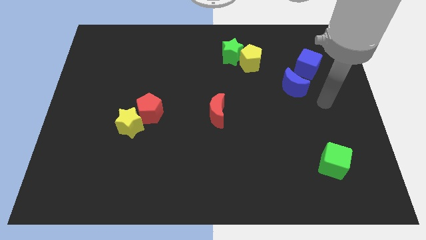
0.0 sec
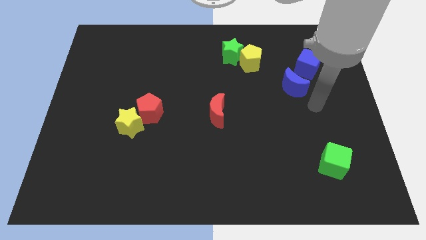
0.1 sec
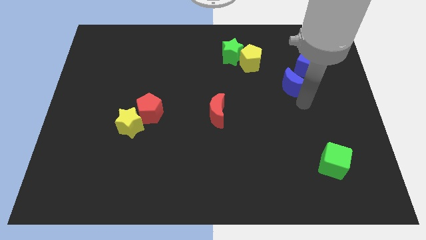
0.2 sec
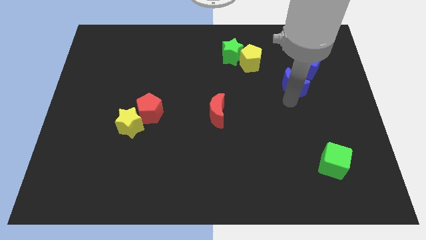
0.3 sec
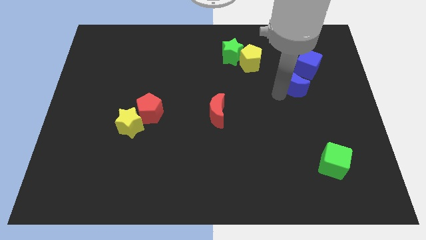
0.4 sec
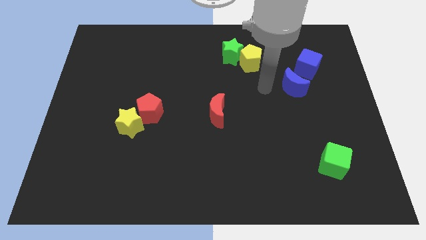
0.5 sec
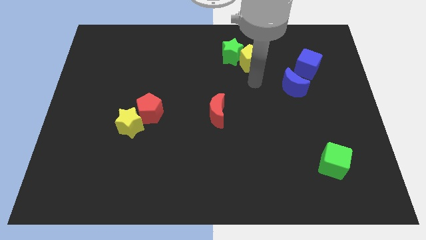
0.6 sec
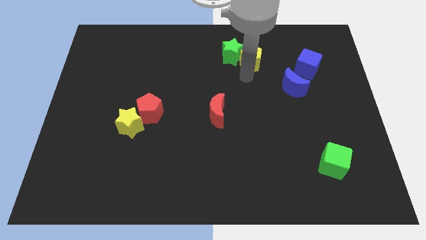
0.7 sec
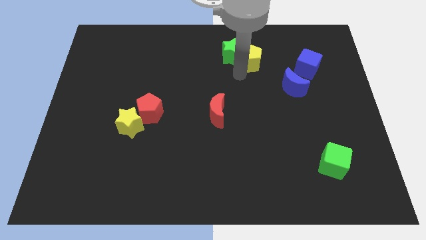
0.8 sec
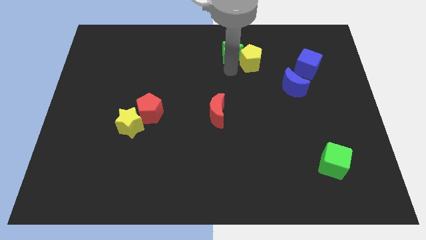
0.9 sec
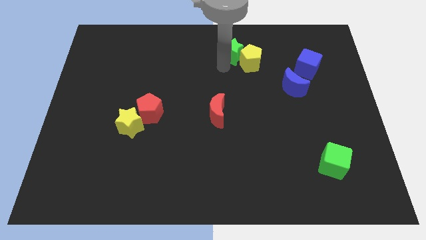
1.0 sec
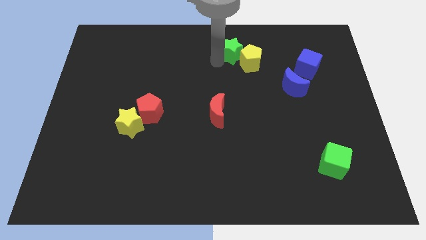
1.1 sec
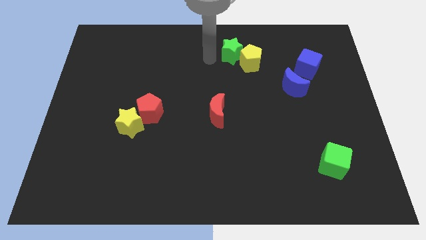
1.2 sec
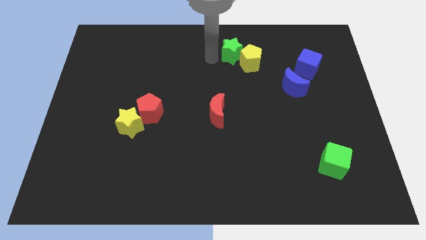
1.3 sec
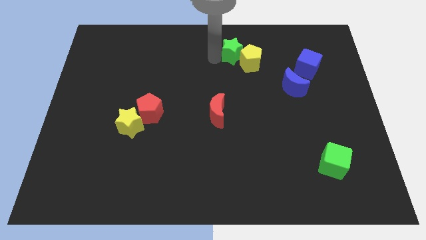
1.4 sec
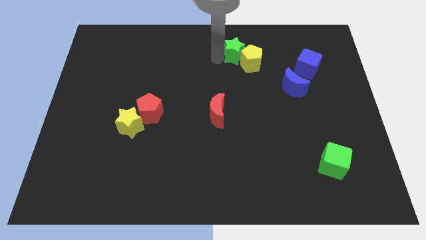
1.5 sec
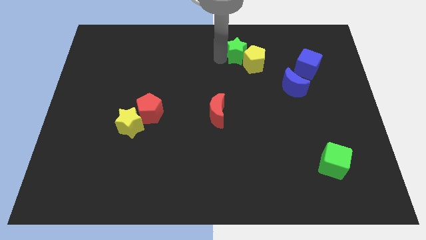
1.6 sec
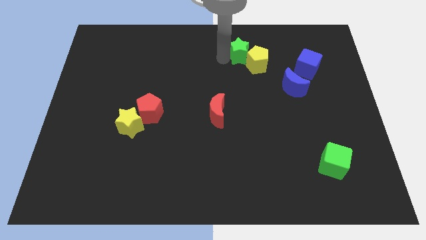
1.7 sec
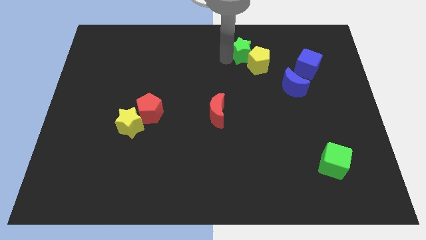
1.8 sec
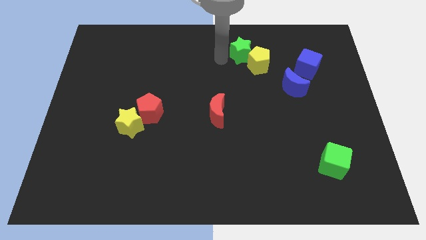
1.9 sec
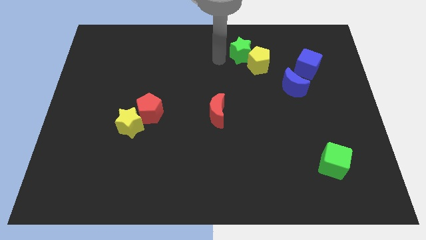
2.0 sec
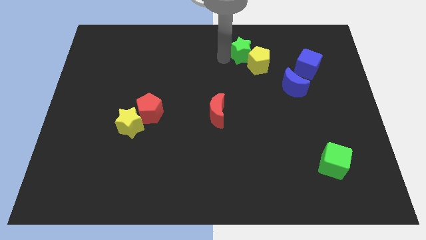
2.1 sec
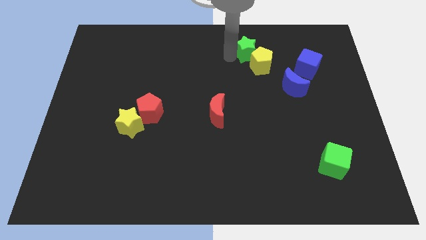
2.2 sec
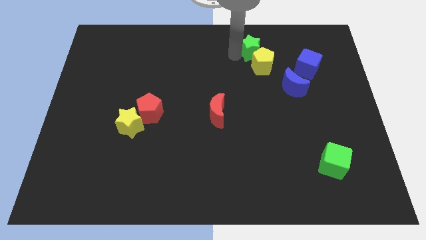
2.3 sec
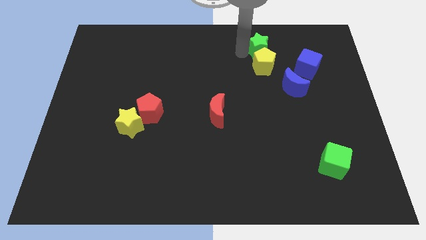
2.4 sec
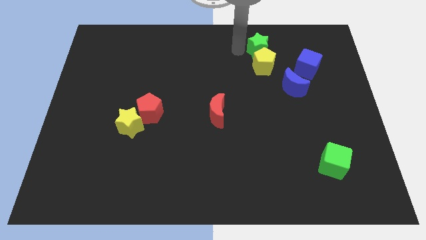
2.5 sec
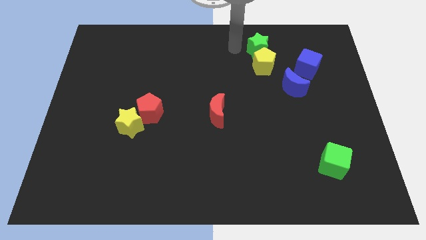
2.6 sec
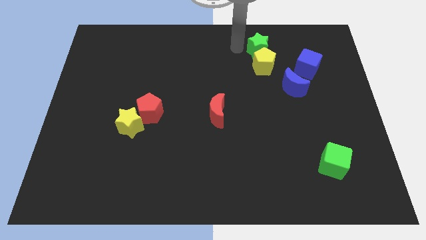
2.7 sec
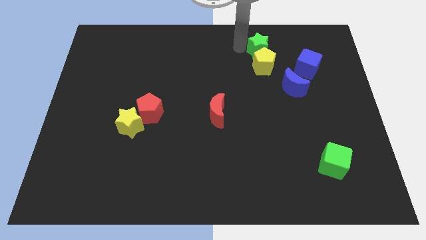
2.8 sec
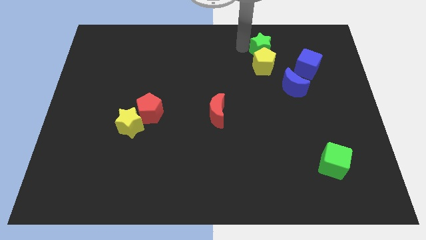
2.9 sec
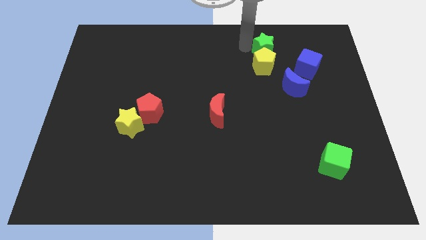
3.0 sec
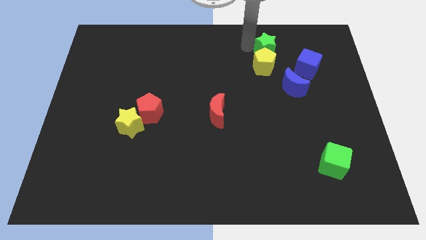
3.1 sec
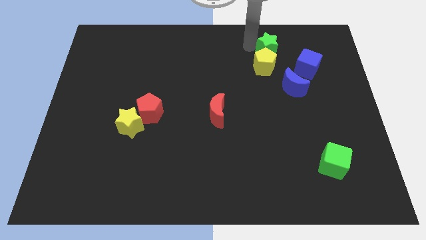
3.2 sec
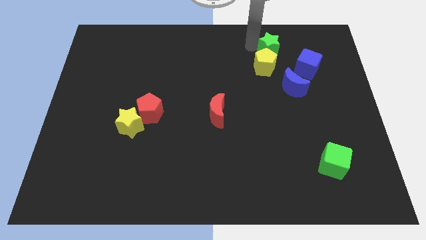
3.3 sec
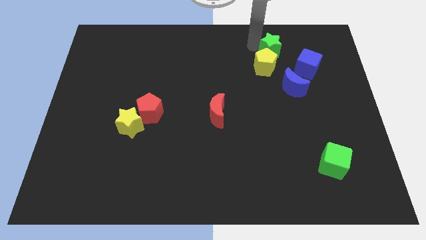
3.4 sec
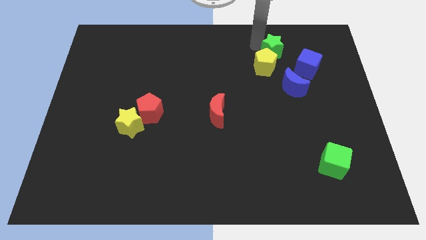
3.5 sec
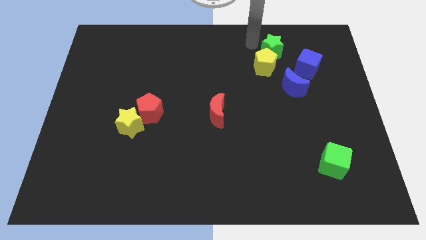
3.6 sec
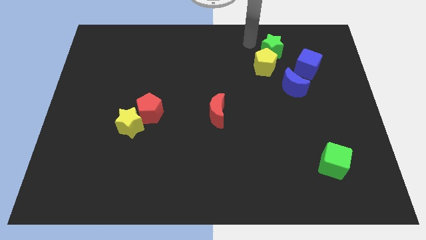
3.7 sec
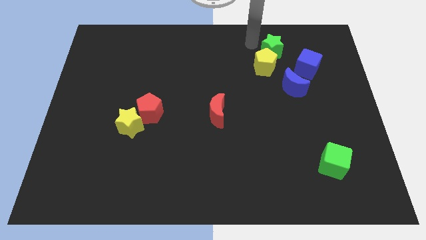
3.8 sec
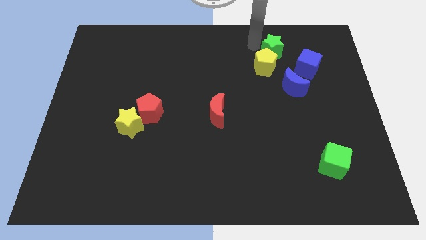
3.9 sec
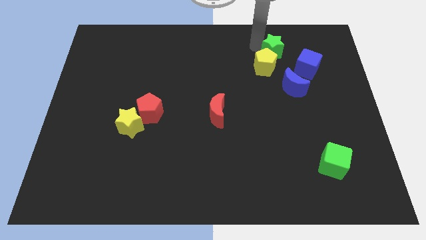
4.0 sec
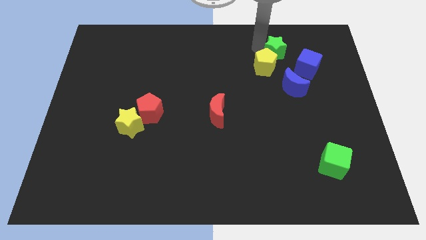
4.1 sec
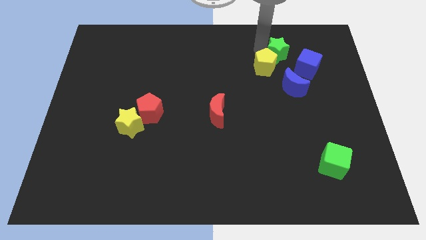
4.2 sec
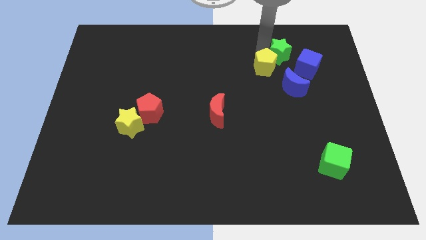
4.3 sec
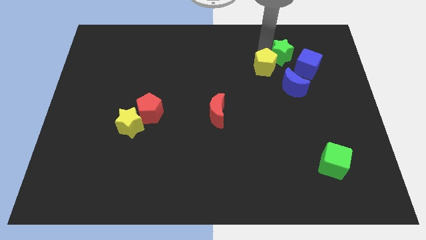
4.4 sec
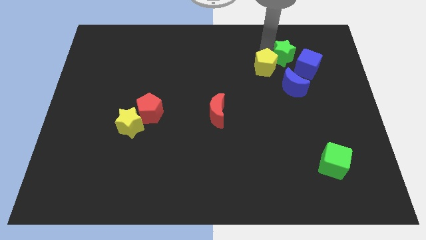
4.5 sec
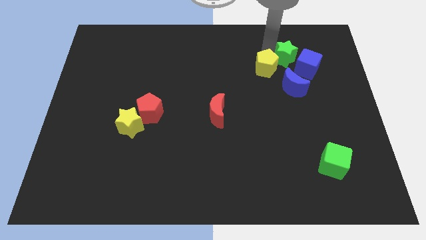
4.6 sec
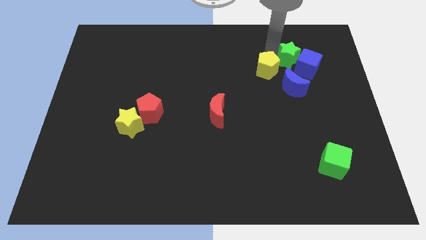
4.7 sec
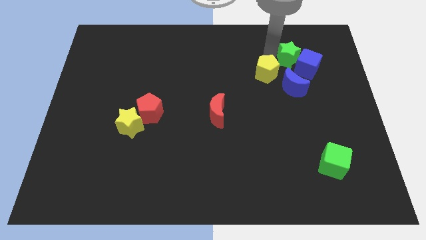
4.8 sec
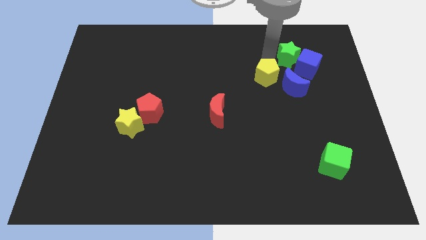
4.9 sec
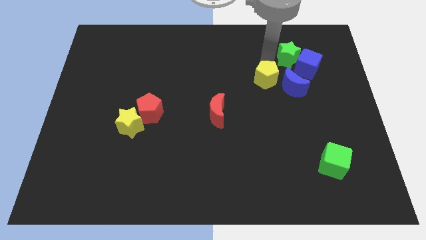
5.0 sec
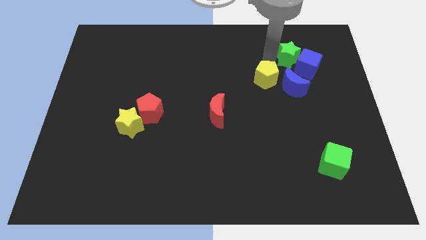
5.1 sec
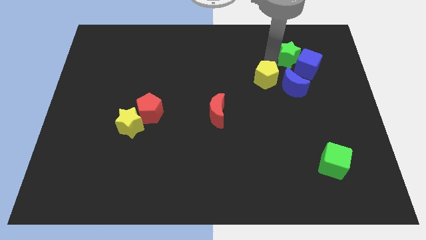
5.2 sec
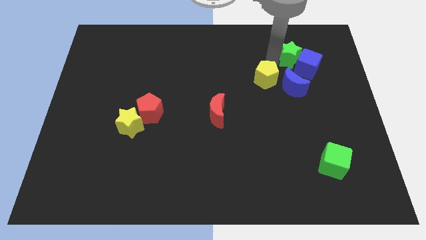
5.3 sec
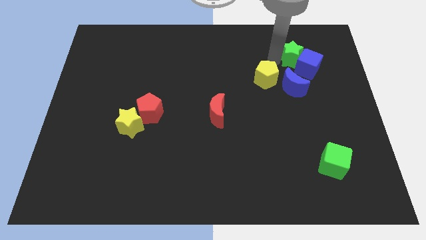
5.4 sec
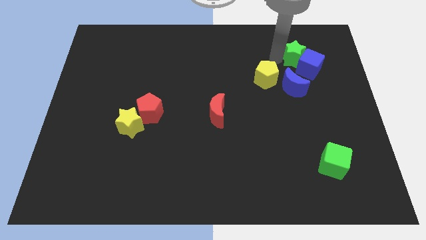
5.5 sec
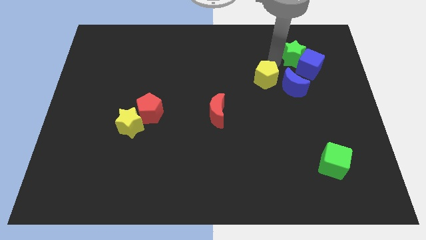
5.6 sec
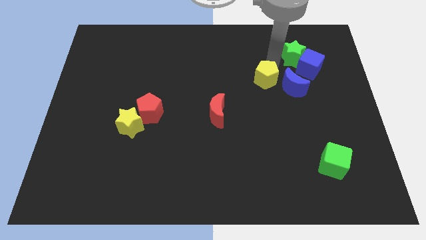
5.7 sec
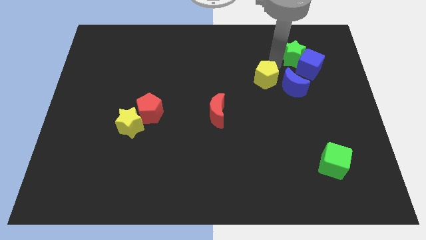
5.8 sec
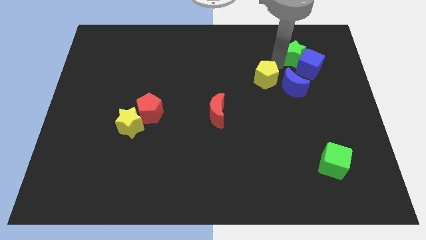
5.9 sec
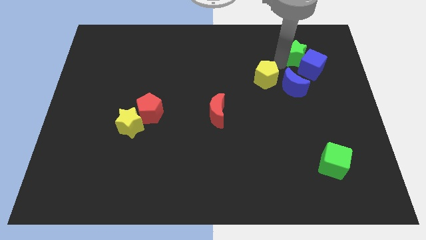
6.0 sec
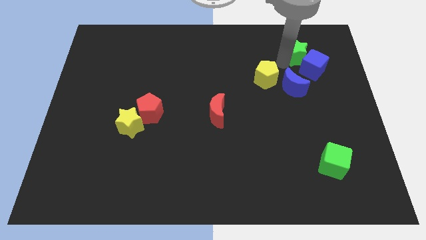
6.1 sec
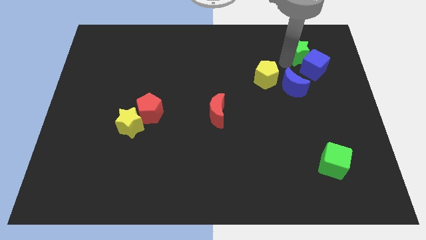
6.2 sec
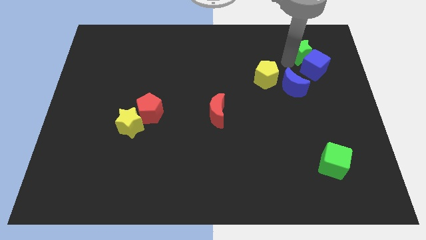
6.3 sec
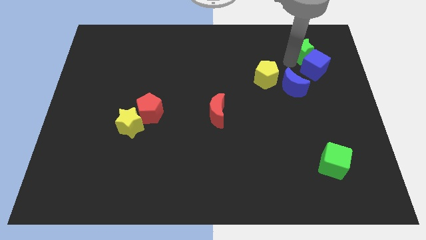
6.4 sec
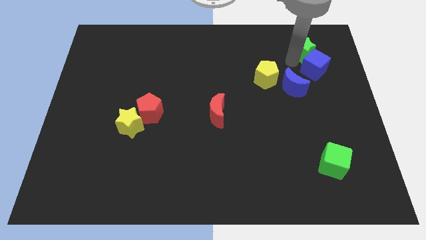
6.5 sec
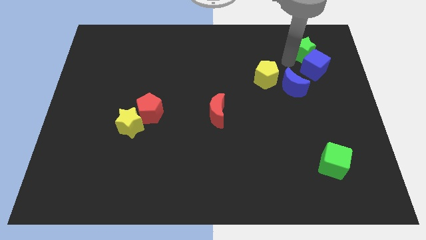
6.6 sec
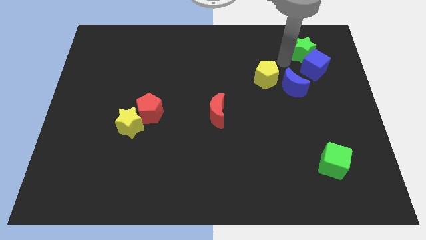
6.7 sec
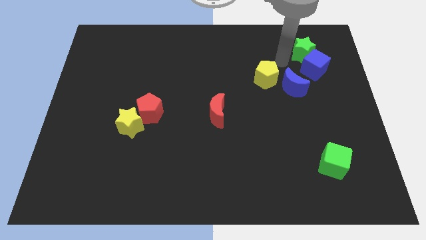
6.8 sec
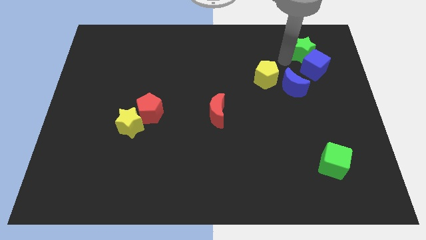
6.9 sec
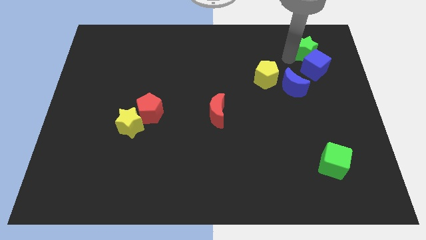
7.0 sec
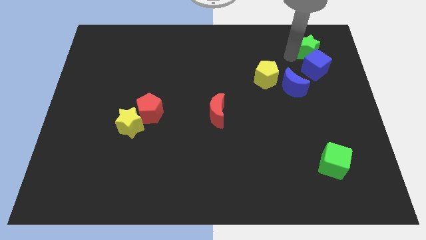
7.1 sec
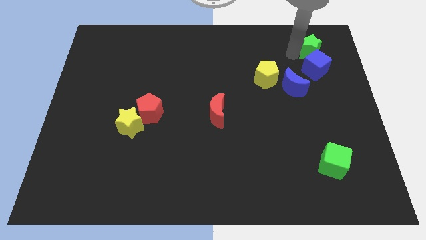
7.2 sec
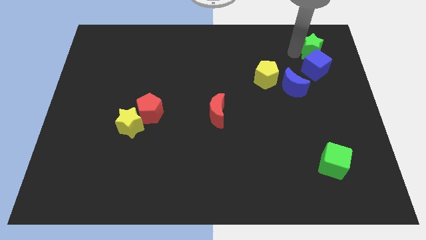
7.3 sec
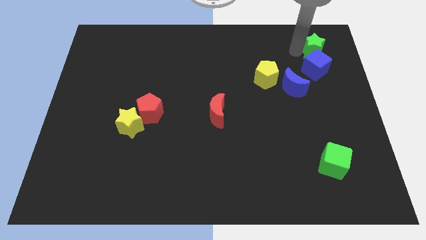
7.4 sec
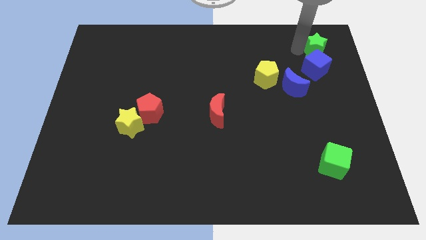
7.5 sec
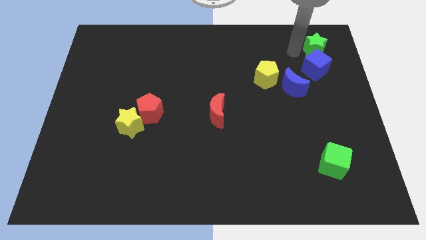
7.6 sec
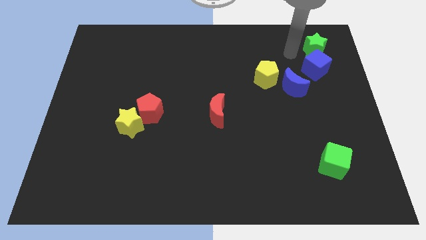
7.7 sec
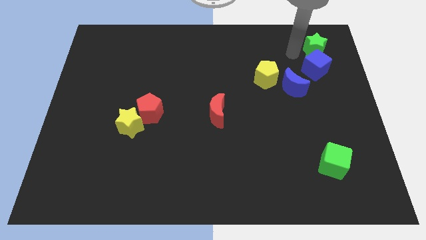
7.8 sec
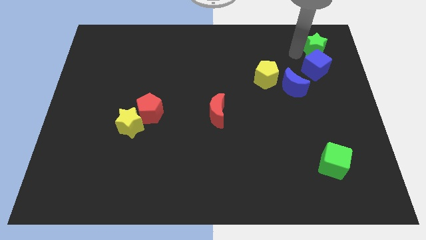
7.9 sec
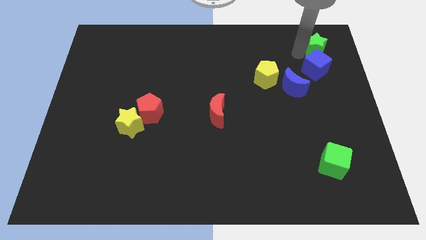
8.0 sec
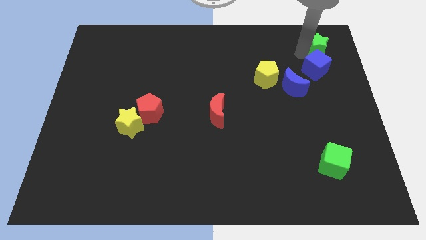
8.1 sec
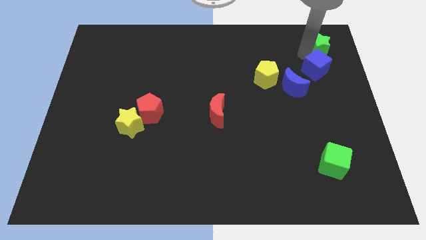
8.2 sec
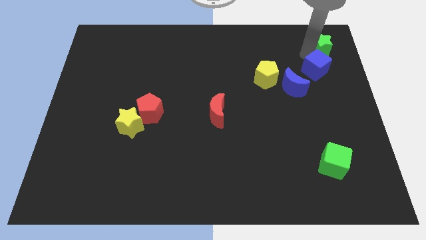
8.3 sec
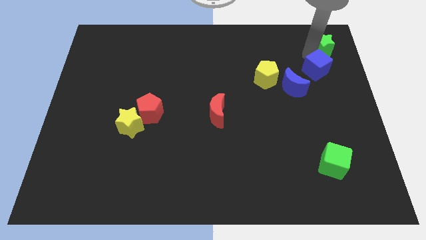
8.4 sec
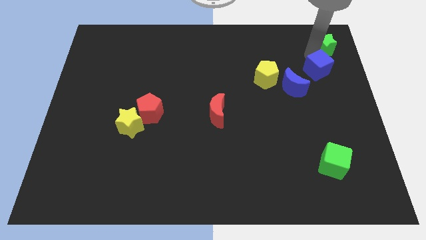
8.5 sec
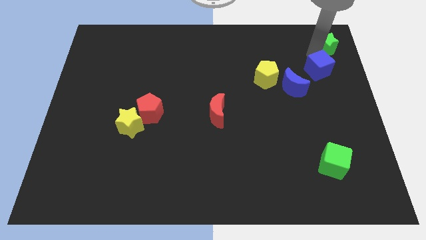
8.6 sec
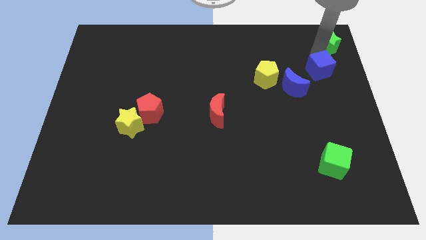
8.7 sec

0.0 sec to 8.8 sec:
move the green star to the upper right corner
